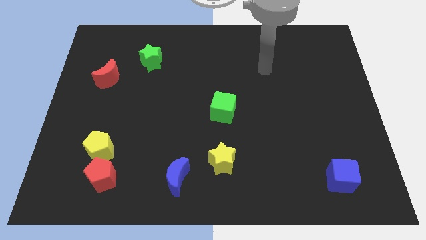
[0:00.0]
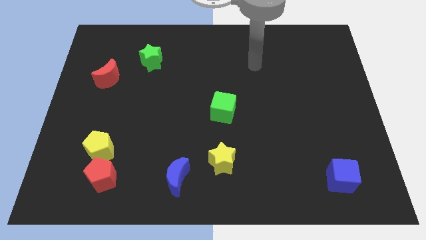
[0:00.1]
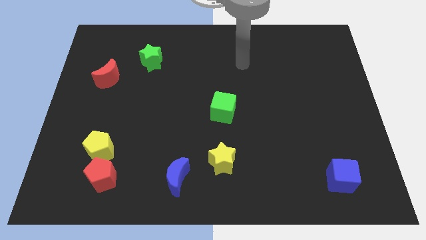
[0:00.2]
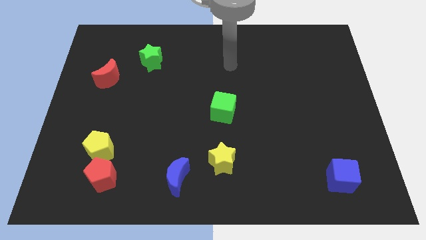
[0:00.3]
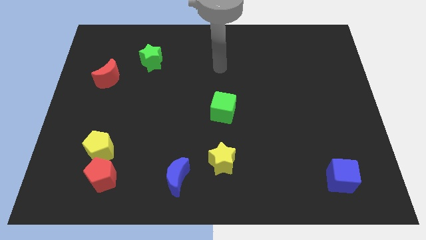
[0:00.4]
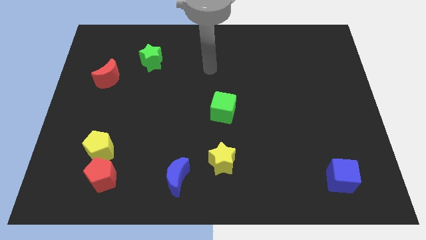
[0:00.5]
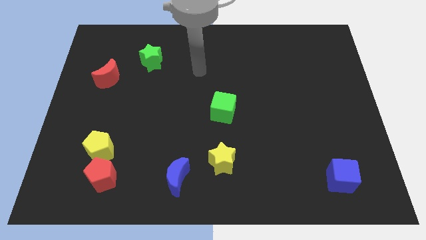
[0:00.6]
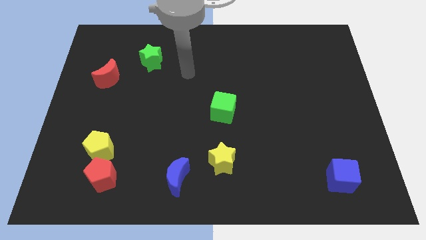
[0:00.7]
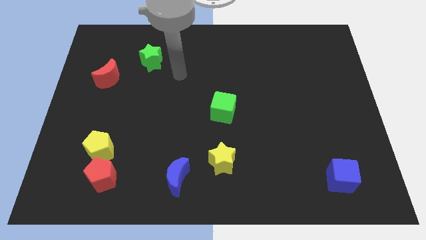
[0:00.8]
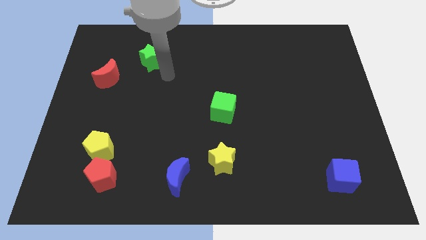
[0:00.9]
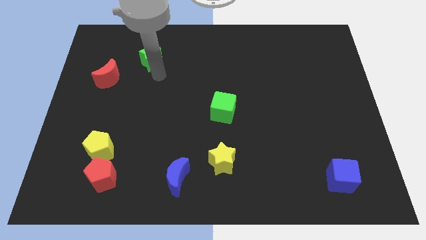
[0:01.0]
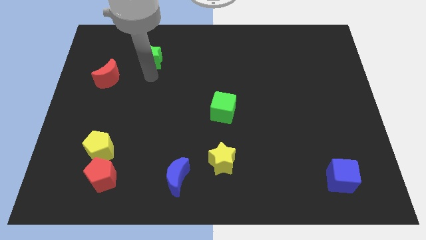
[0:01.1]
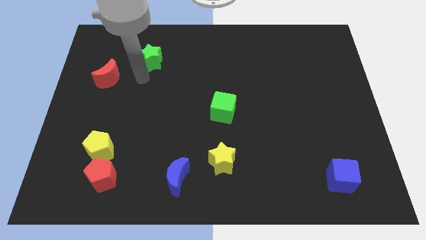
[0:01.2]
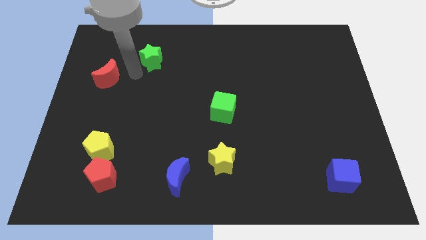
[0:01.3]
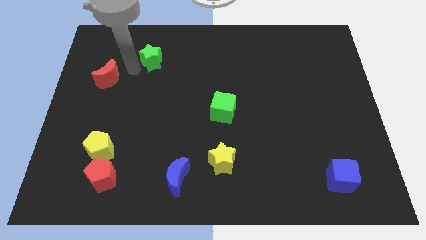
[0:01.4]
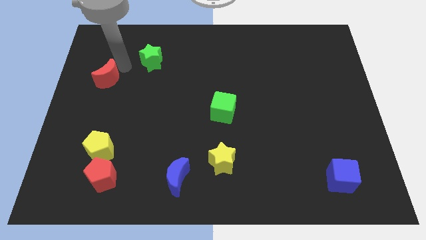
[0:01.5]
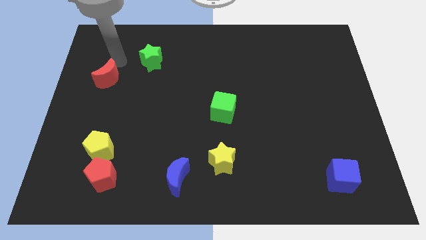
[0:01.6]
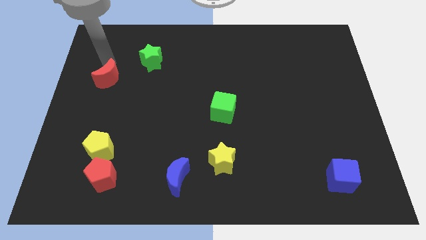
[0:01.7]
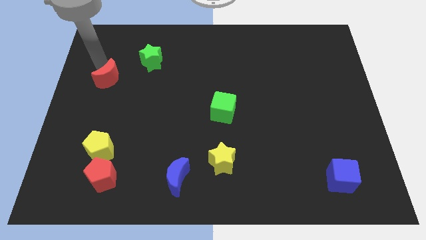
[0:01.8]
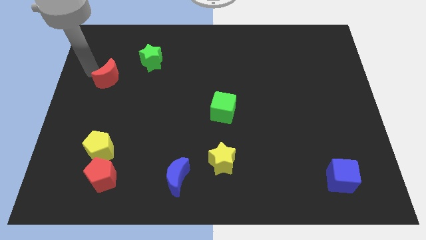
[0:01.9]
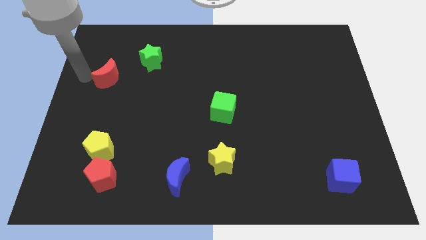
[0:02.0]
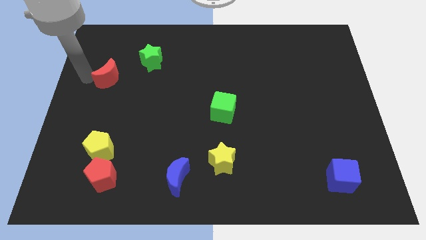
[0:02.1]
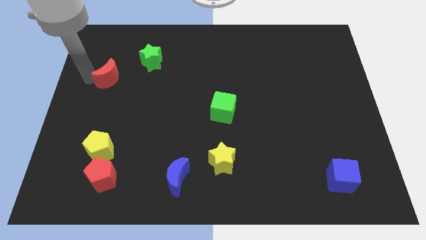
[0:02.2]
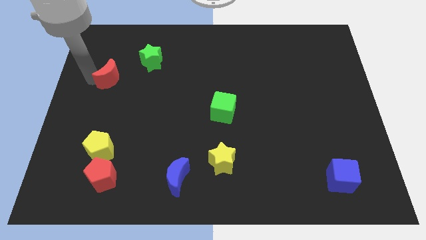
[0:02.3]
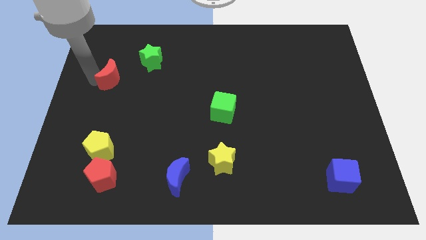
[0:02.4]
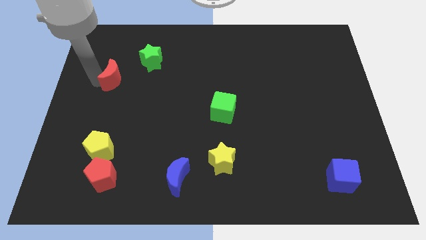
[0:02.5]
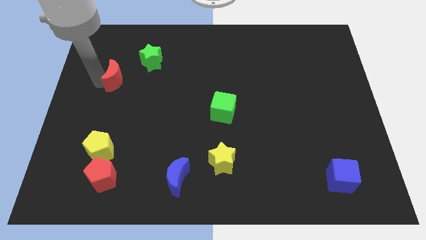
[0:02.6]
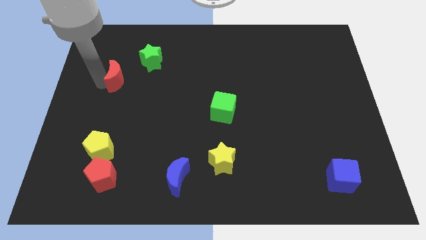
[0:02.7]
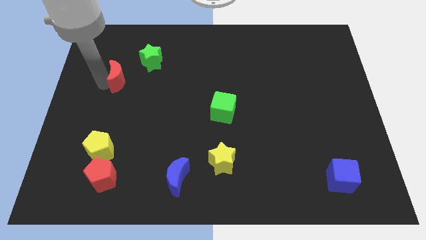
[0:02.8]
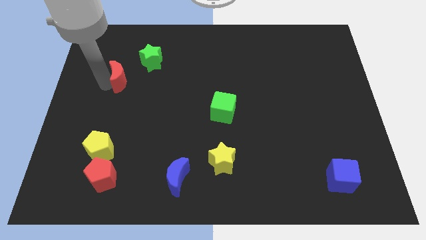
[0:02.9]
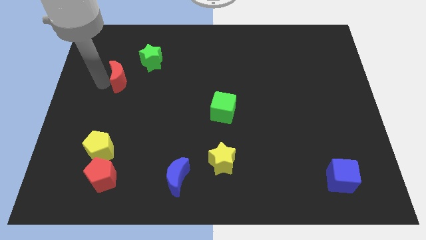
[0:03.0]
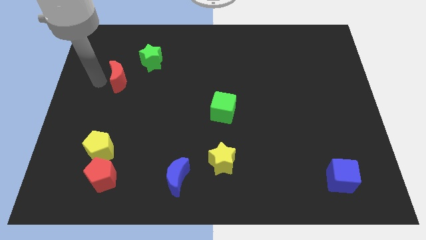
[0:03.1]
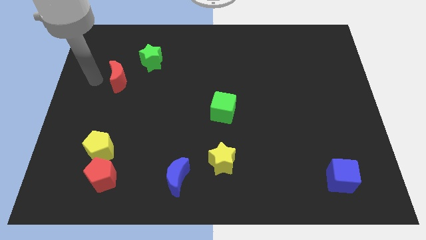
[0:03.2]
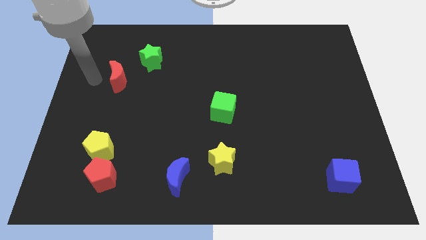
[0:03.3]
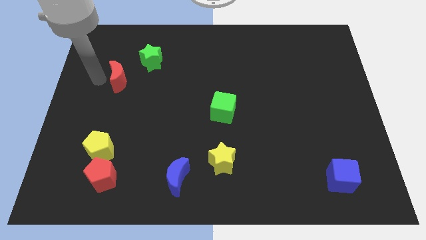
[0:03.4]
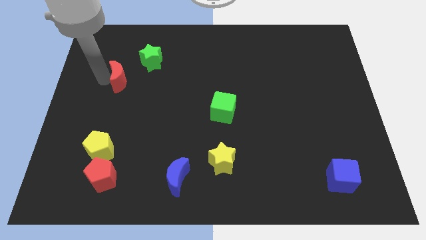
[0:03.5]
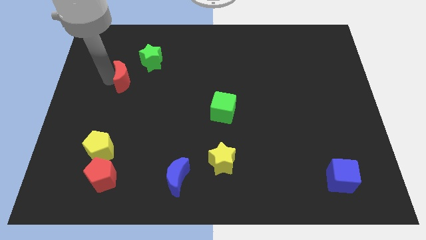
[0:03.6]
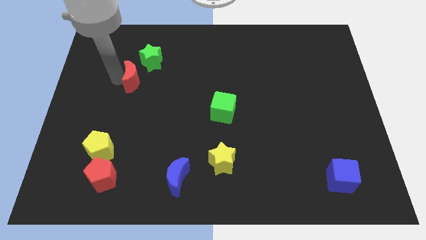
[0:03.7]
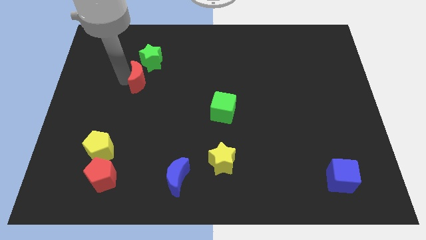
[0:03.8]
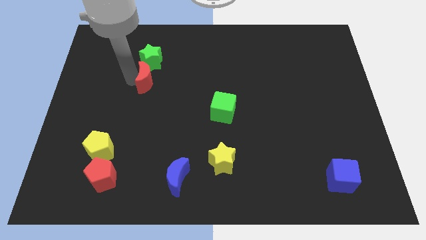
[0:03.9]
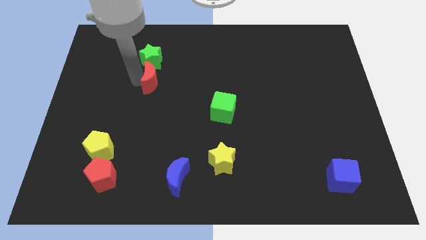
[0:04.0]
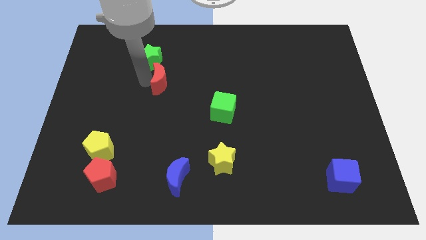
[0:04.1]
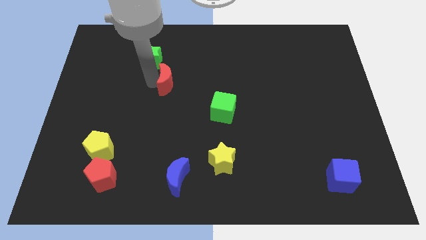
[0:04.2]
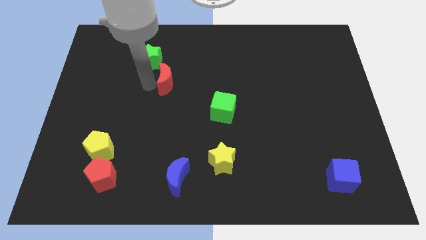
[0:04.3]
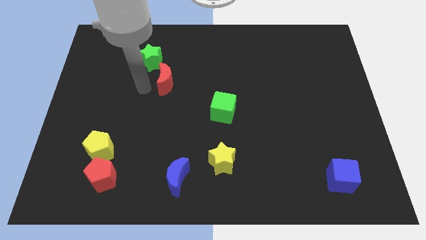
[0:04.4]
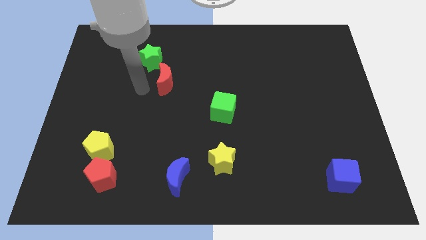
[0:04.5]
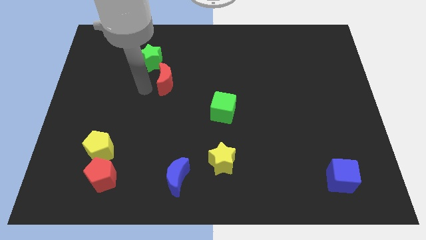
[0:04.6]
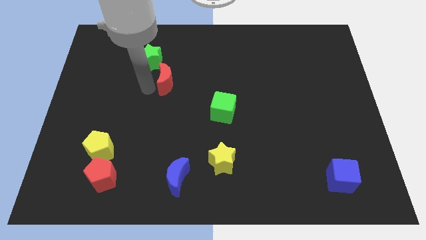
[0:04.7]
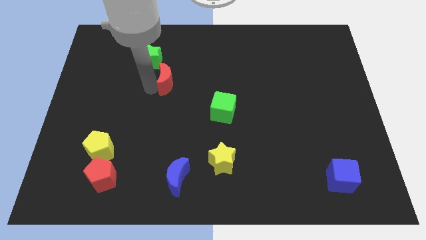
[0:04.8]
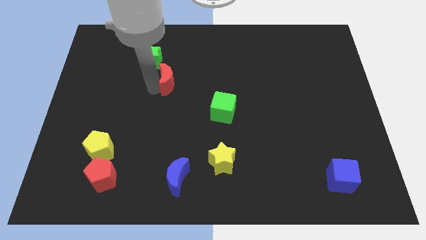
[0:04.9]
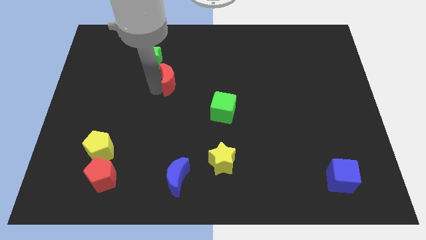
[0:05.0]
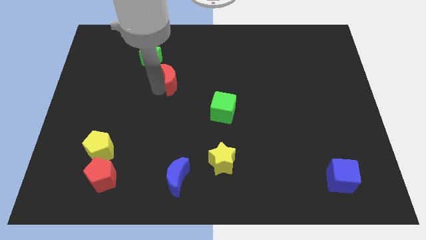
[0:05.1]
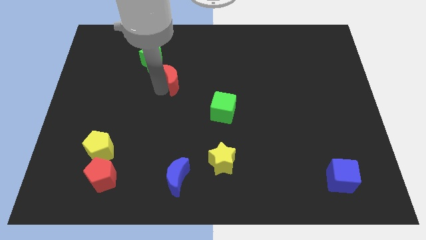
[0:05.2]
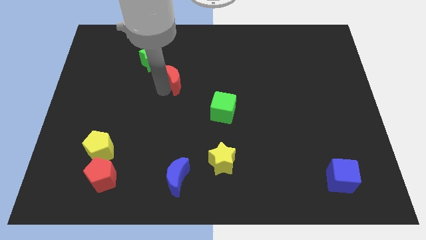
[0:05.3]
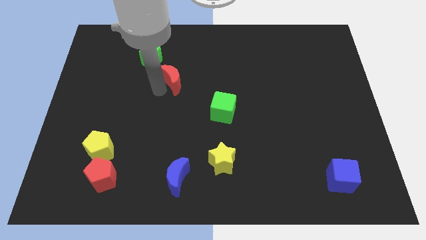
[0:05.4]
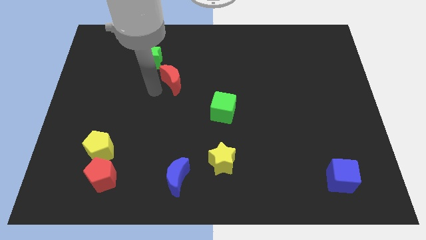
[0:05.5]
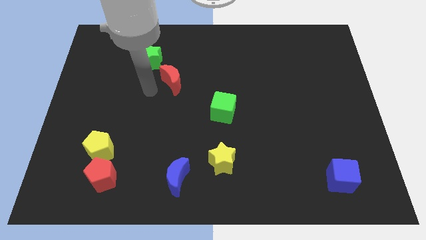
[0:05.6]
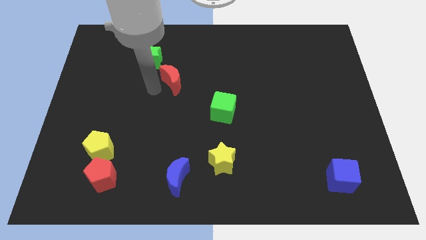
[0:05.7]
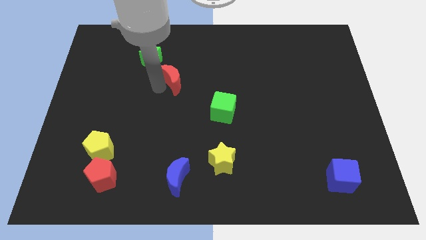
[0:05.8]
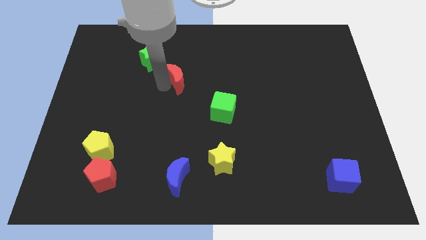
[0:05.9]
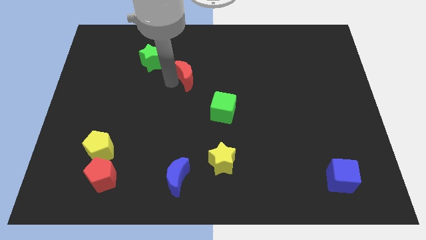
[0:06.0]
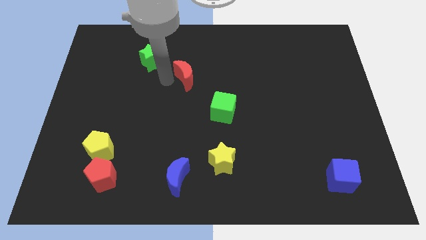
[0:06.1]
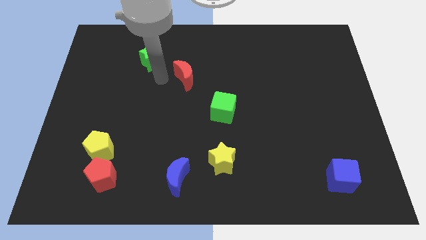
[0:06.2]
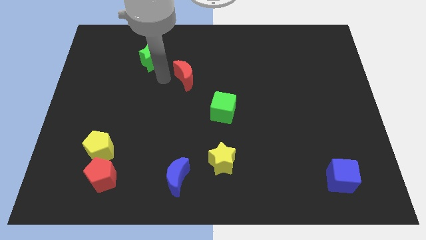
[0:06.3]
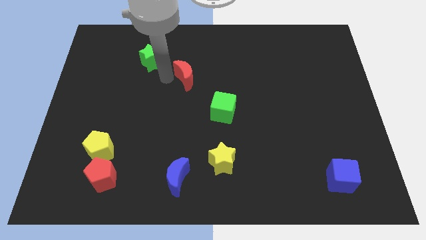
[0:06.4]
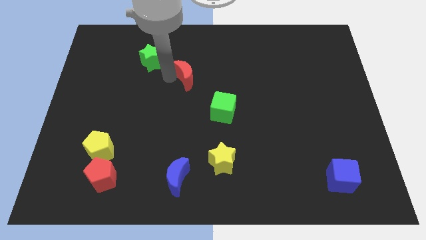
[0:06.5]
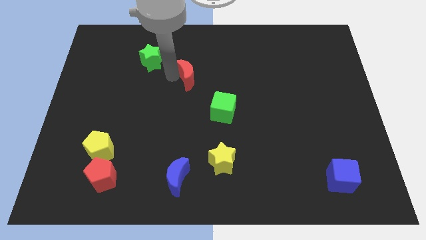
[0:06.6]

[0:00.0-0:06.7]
push the red moon to the right

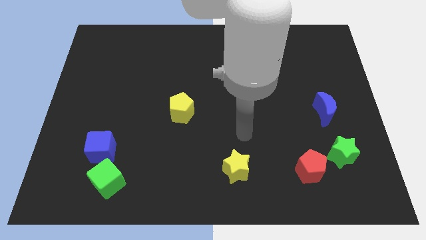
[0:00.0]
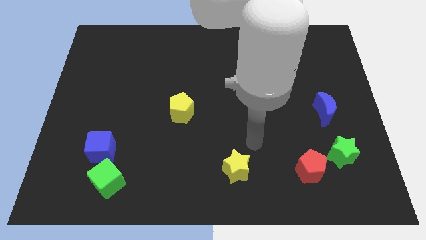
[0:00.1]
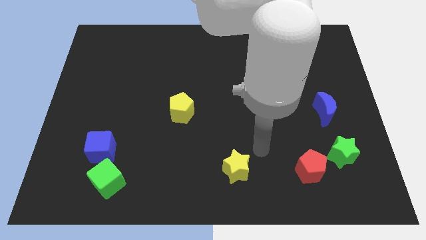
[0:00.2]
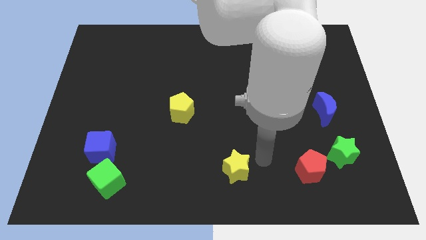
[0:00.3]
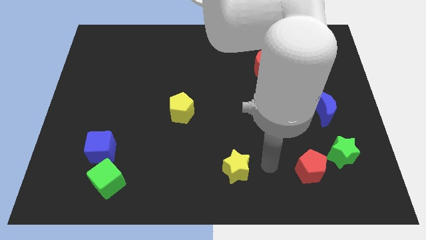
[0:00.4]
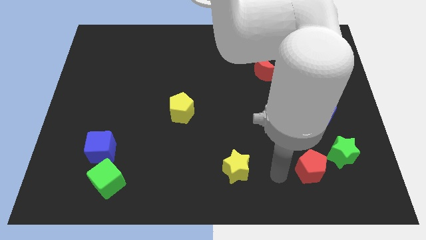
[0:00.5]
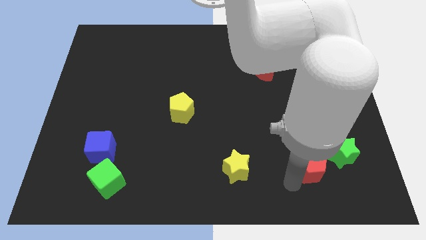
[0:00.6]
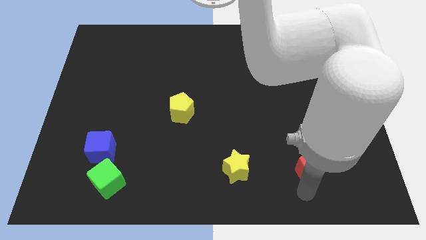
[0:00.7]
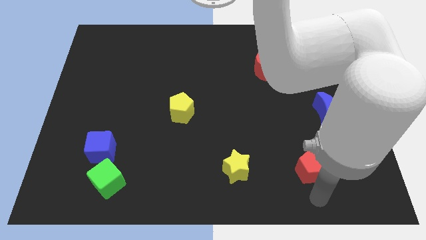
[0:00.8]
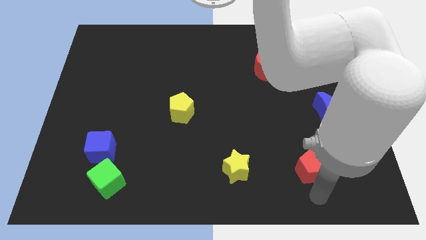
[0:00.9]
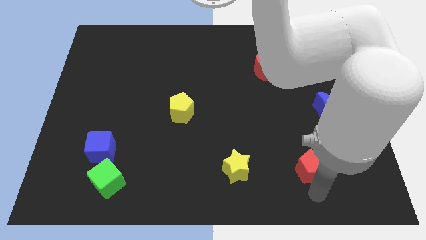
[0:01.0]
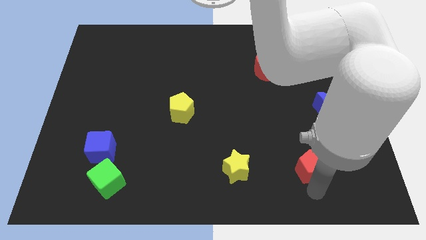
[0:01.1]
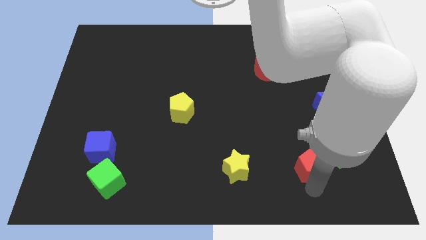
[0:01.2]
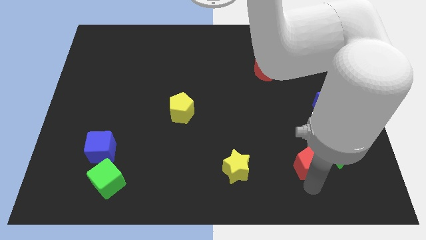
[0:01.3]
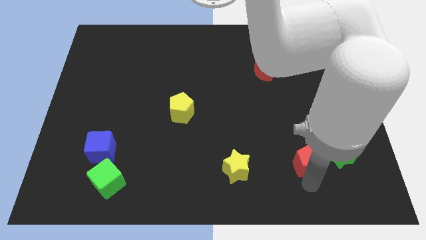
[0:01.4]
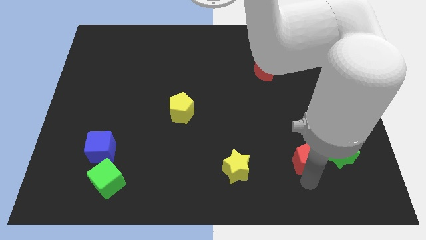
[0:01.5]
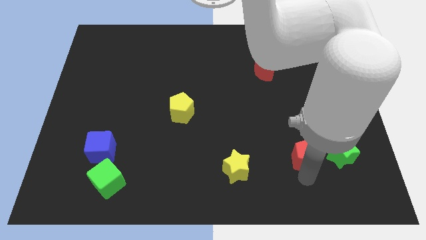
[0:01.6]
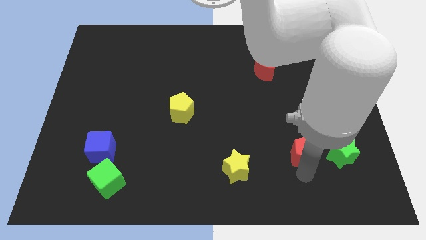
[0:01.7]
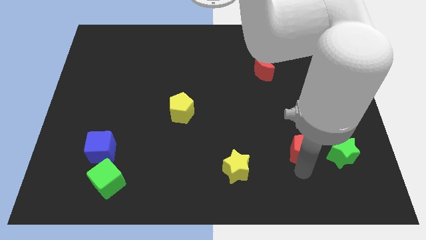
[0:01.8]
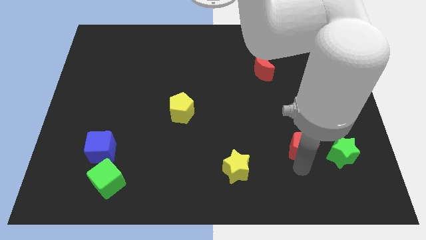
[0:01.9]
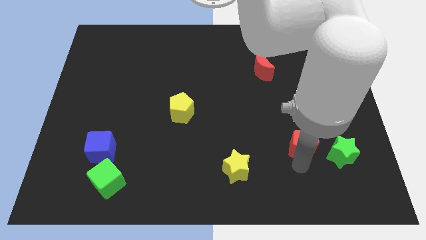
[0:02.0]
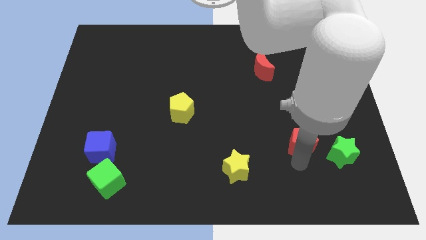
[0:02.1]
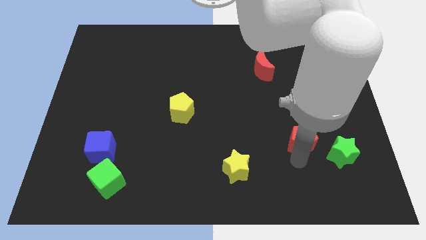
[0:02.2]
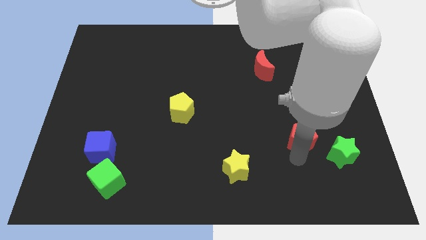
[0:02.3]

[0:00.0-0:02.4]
move the red pentagon upwards slightly
